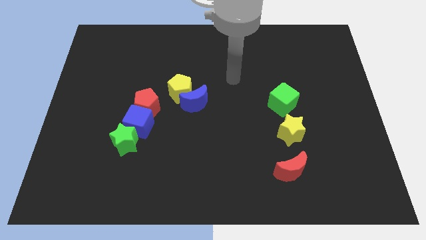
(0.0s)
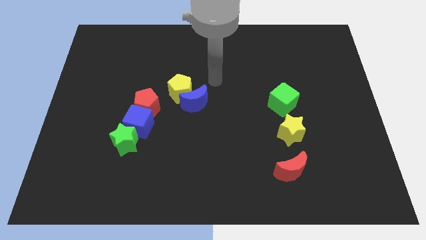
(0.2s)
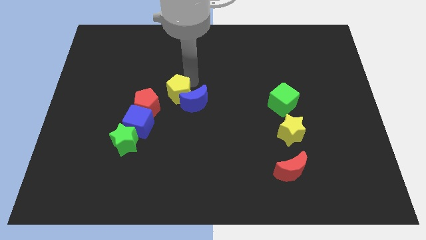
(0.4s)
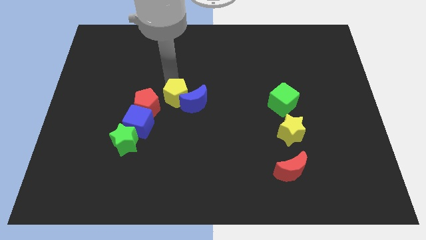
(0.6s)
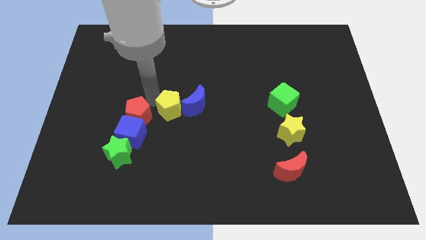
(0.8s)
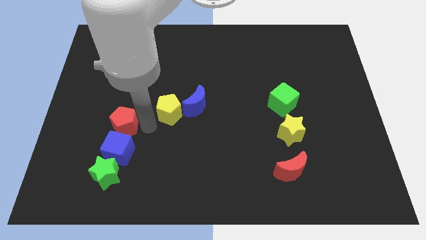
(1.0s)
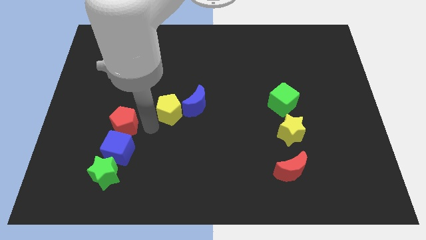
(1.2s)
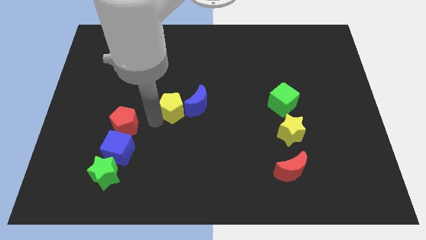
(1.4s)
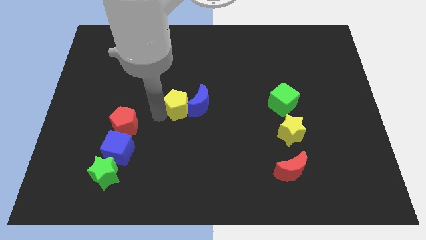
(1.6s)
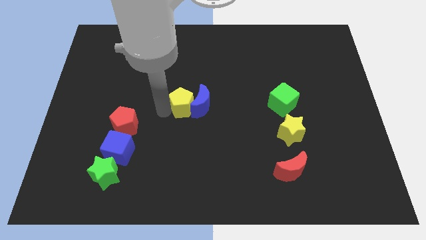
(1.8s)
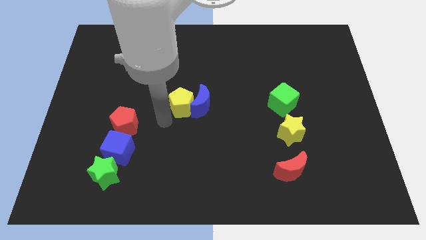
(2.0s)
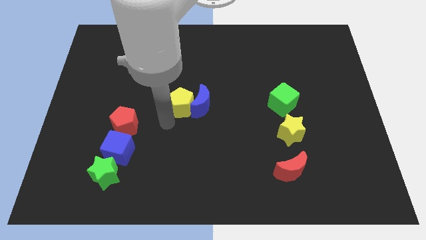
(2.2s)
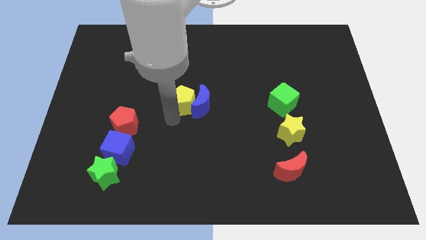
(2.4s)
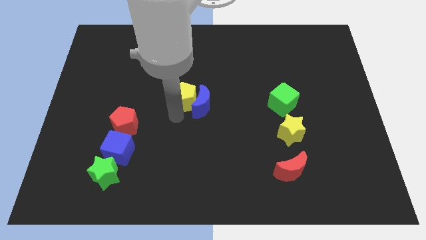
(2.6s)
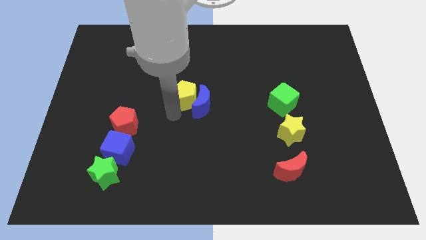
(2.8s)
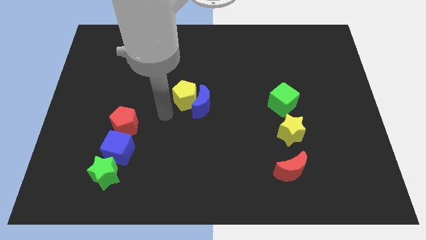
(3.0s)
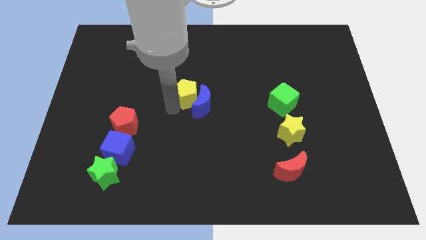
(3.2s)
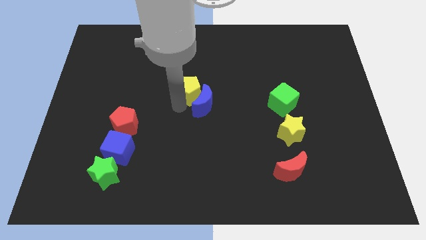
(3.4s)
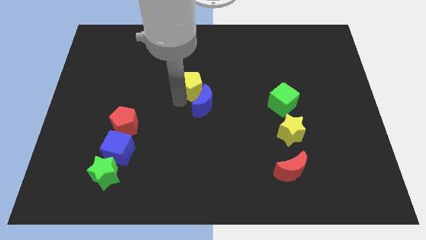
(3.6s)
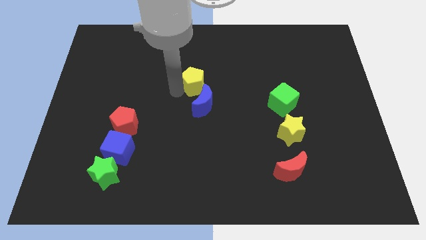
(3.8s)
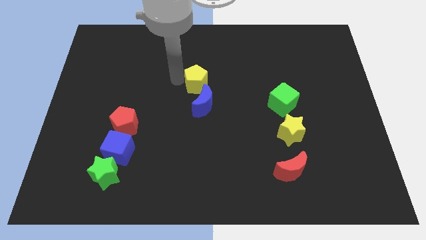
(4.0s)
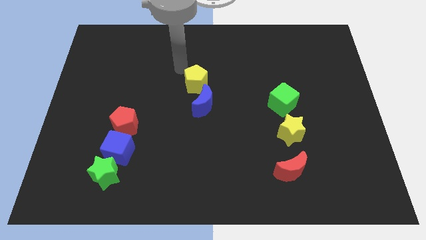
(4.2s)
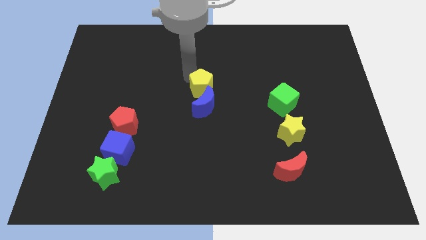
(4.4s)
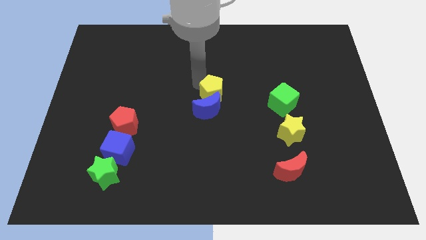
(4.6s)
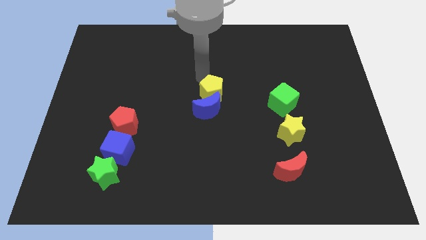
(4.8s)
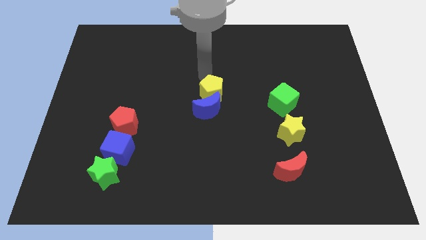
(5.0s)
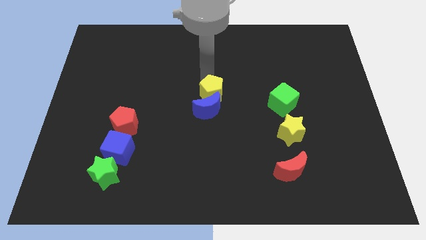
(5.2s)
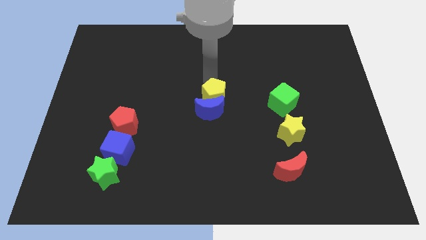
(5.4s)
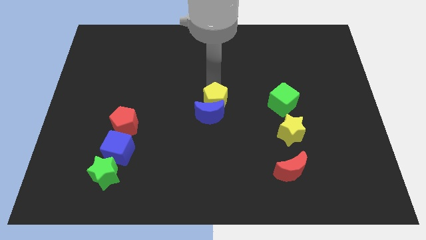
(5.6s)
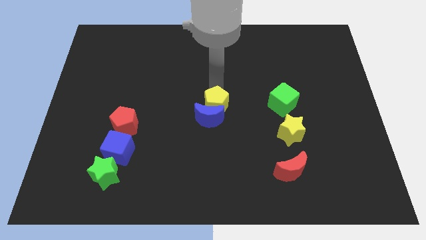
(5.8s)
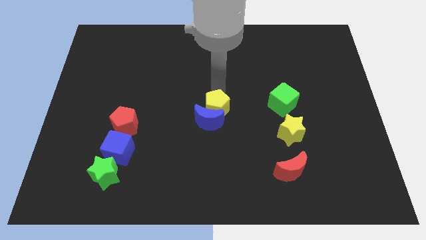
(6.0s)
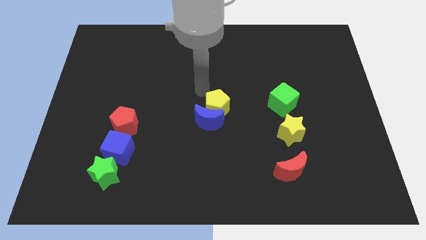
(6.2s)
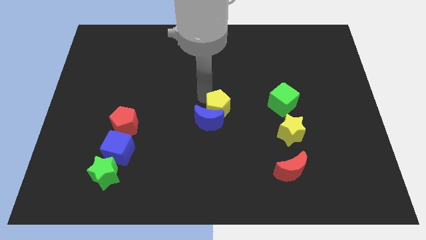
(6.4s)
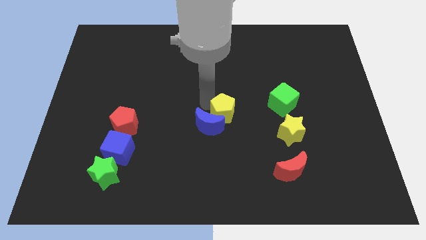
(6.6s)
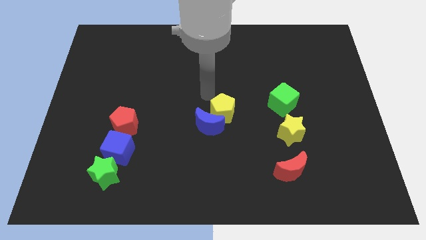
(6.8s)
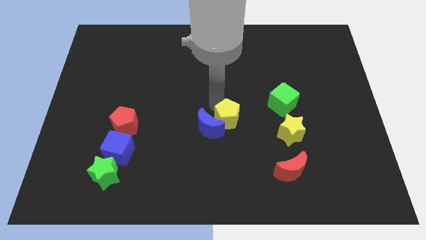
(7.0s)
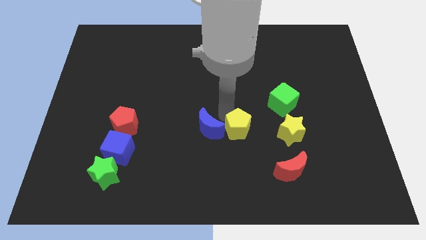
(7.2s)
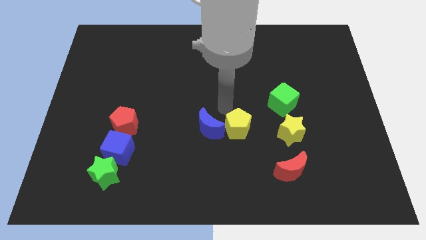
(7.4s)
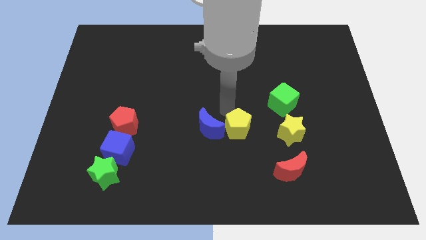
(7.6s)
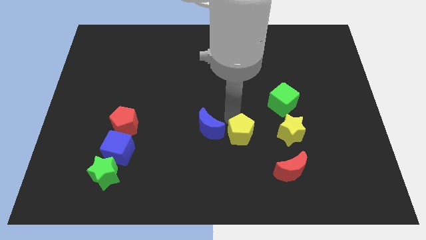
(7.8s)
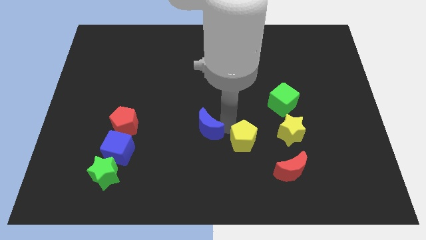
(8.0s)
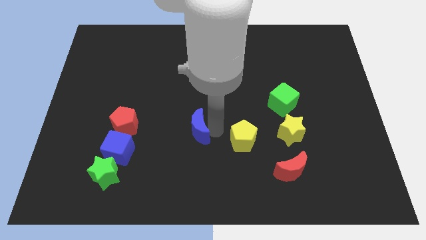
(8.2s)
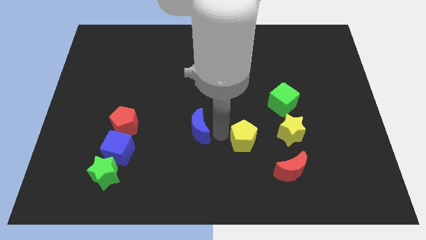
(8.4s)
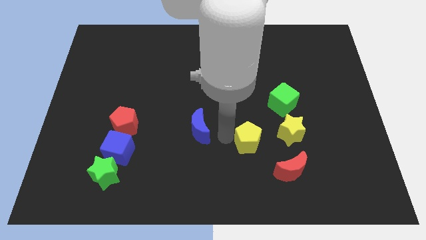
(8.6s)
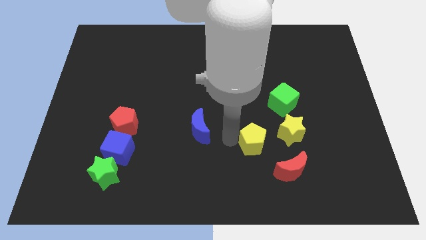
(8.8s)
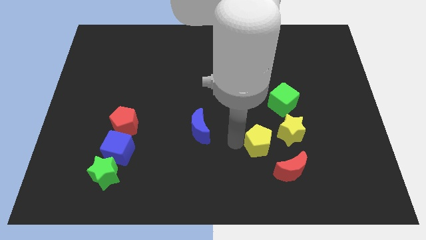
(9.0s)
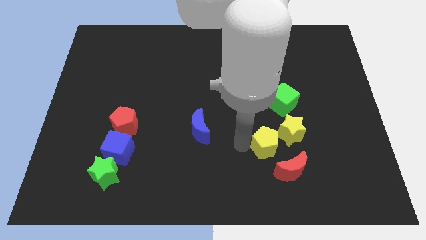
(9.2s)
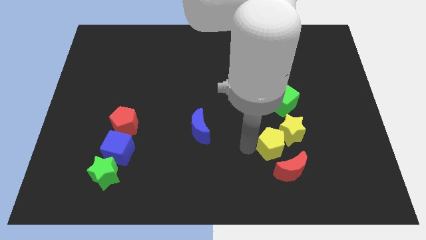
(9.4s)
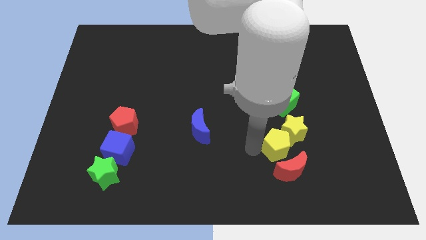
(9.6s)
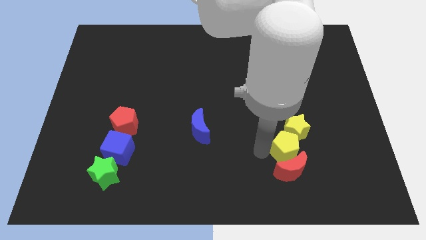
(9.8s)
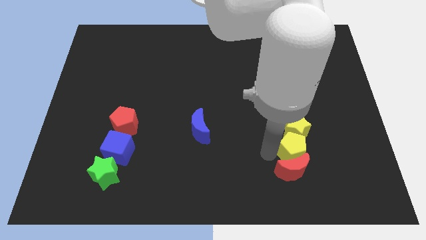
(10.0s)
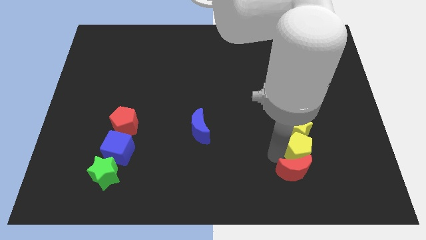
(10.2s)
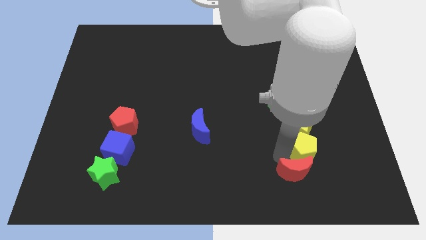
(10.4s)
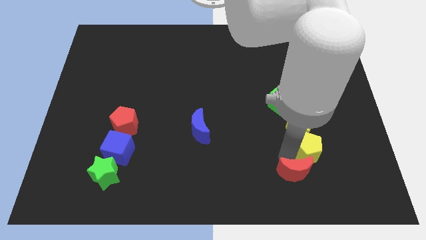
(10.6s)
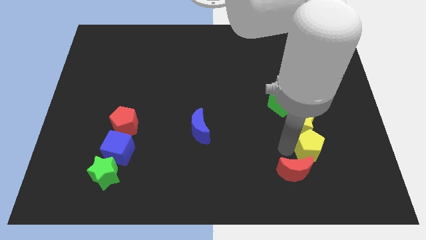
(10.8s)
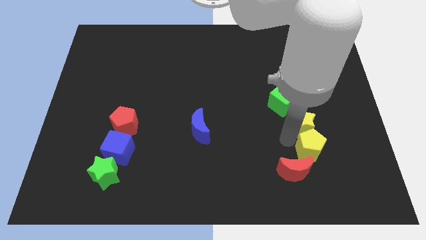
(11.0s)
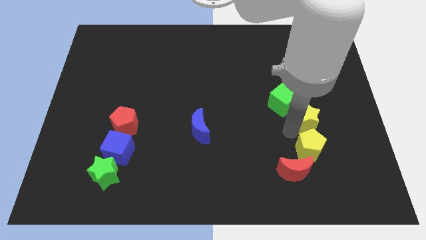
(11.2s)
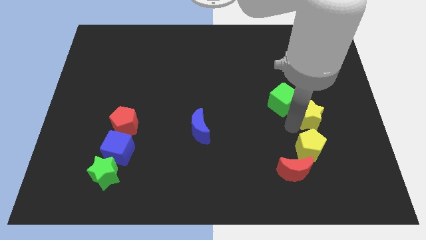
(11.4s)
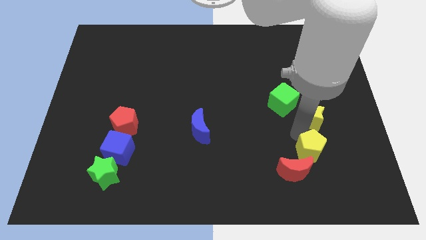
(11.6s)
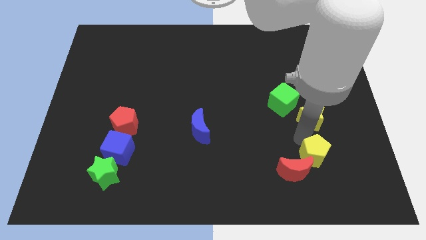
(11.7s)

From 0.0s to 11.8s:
push the yellow pentagon right of the red moon

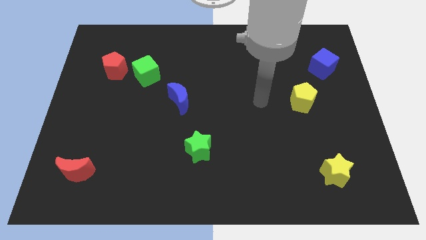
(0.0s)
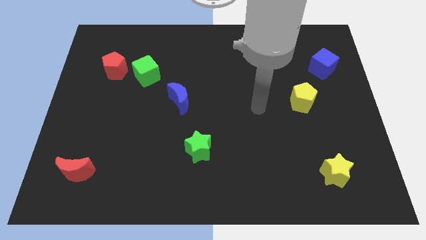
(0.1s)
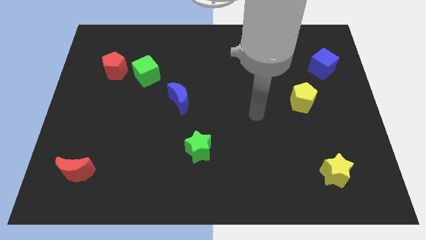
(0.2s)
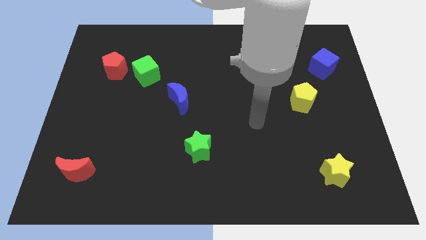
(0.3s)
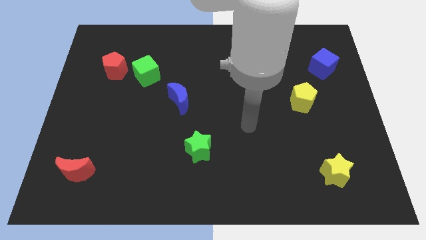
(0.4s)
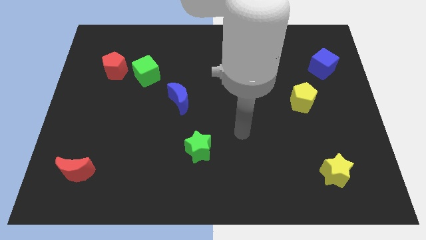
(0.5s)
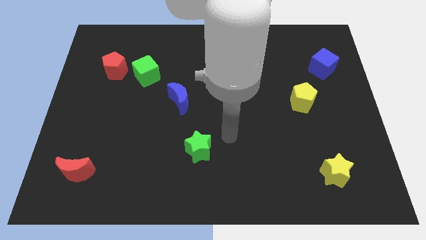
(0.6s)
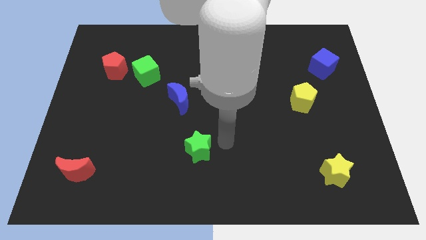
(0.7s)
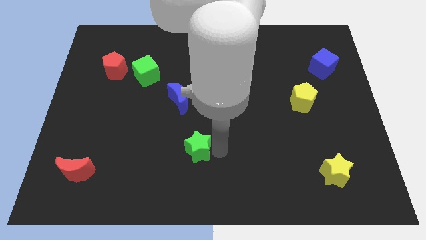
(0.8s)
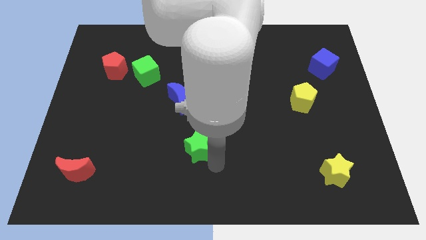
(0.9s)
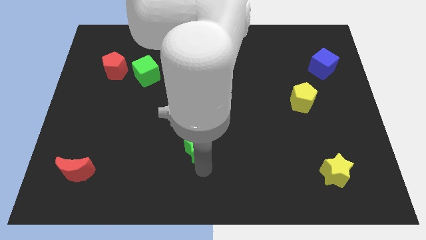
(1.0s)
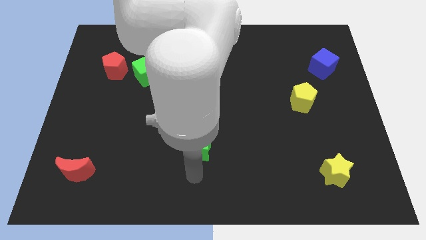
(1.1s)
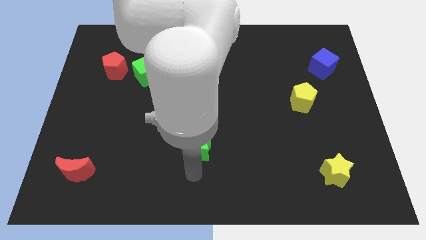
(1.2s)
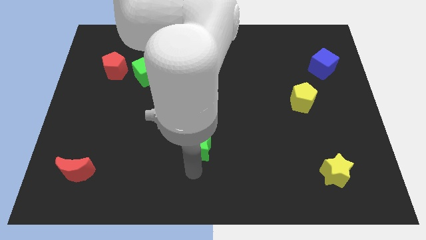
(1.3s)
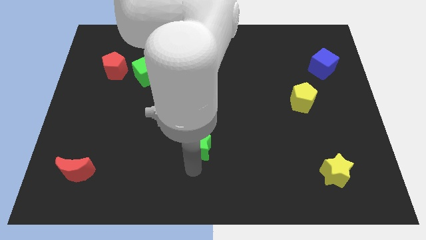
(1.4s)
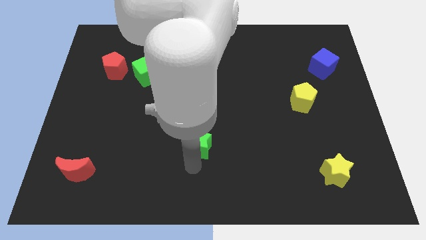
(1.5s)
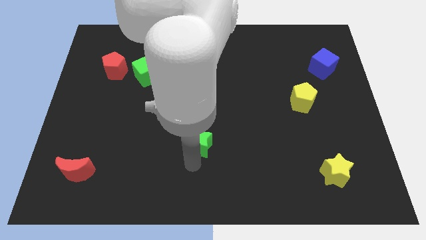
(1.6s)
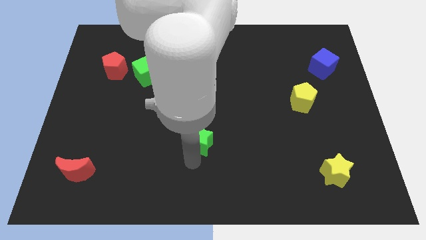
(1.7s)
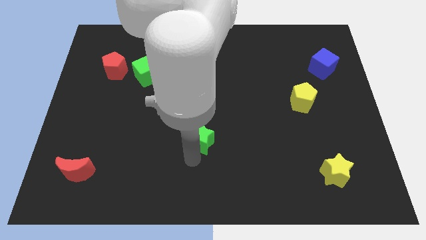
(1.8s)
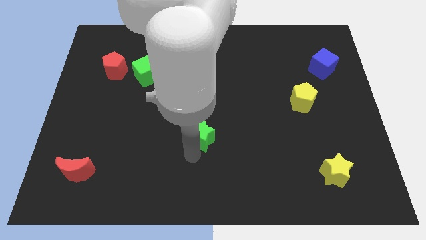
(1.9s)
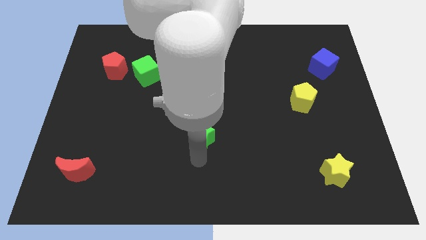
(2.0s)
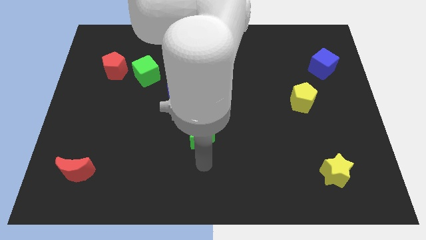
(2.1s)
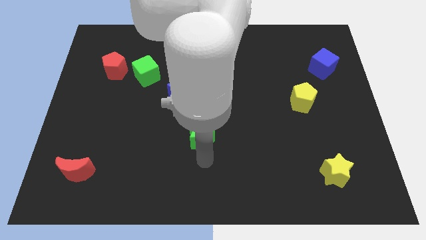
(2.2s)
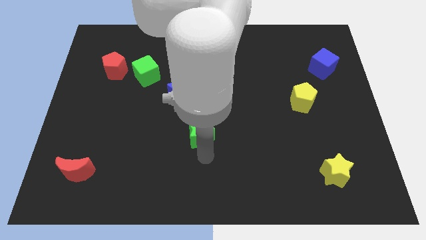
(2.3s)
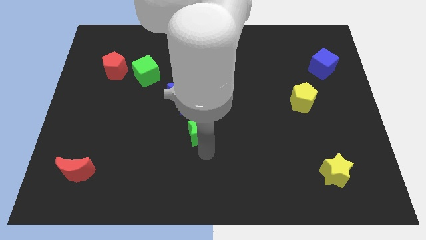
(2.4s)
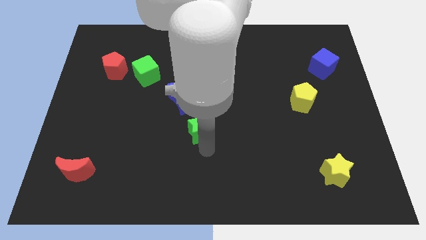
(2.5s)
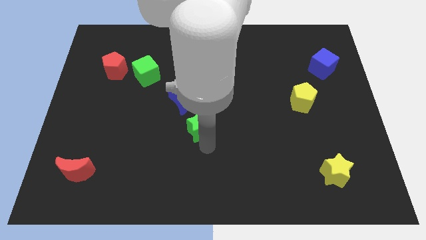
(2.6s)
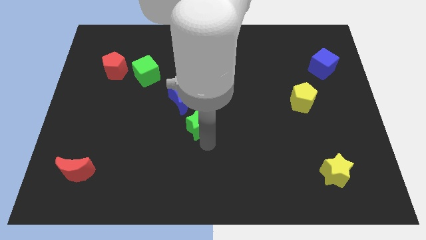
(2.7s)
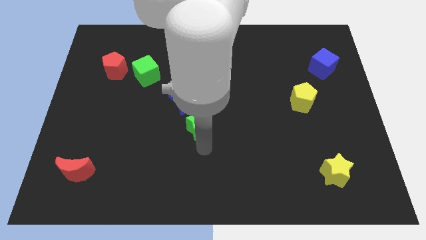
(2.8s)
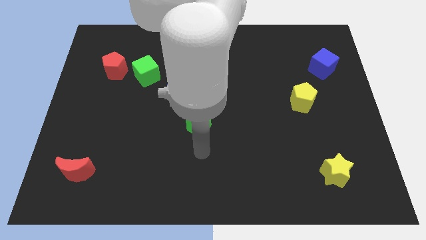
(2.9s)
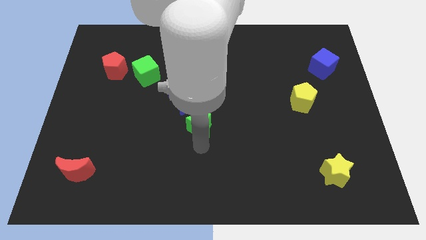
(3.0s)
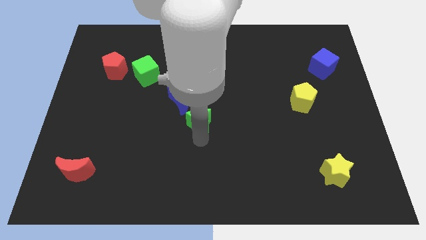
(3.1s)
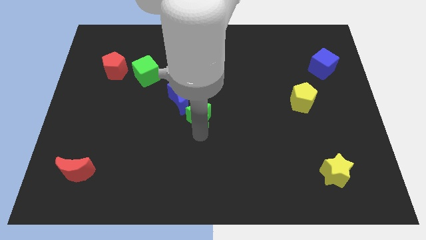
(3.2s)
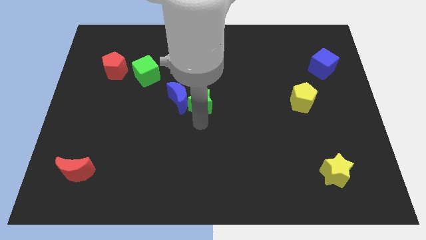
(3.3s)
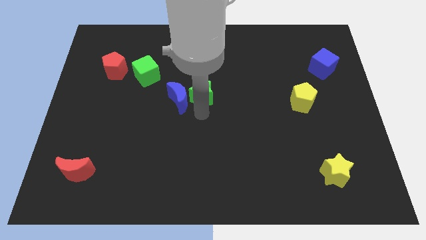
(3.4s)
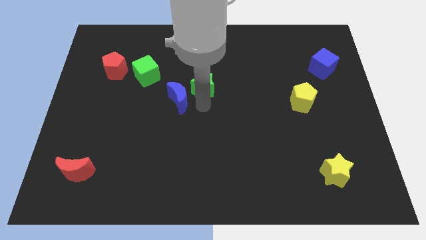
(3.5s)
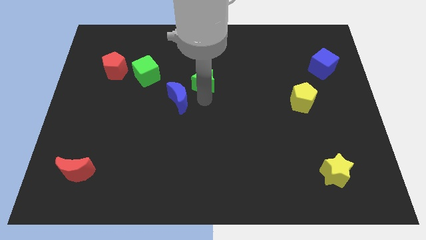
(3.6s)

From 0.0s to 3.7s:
move the green star to the right side of the green cube
